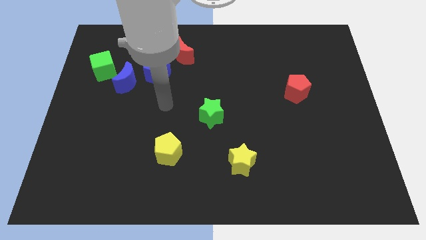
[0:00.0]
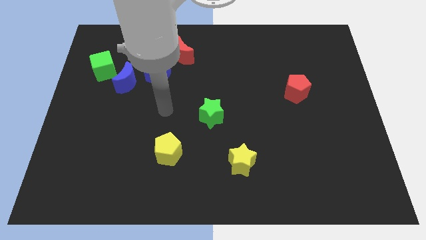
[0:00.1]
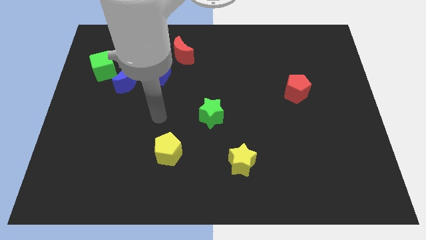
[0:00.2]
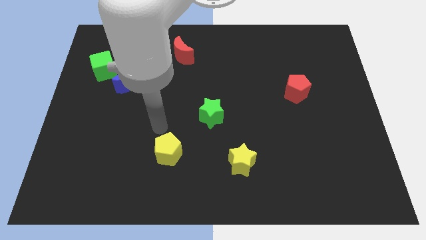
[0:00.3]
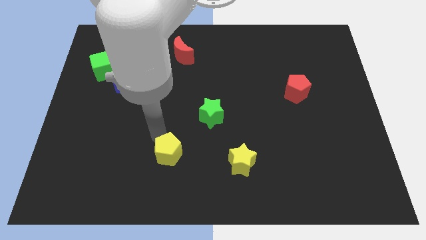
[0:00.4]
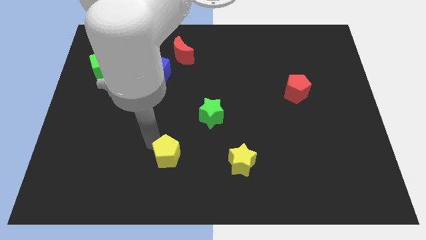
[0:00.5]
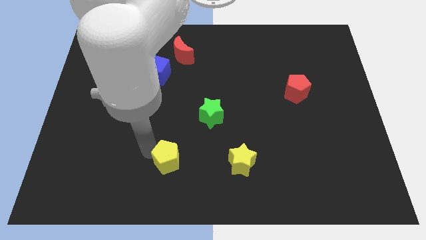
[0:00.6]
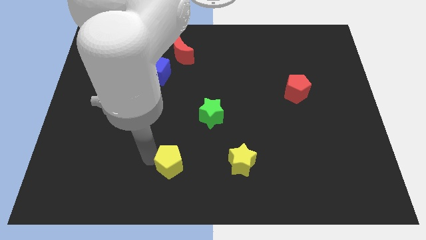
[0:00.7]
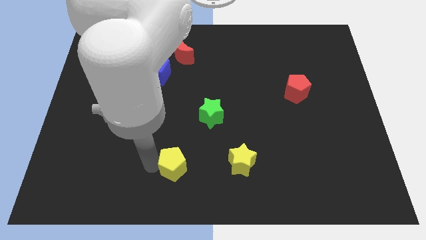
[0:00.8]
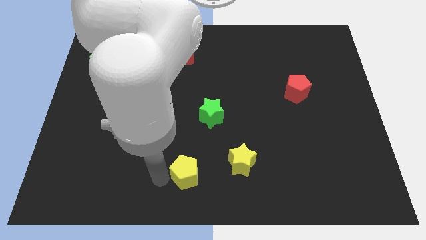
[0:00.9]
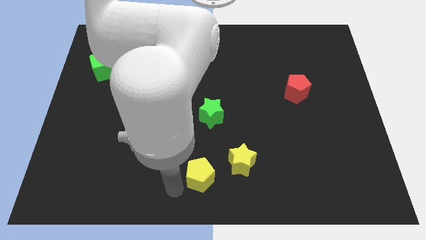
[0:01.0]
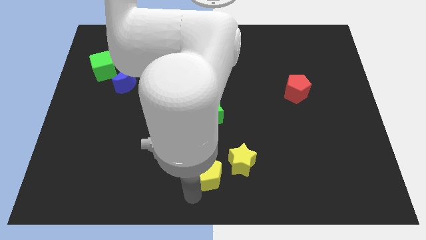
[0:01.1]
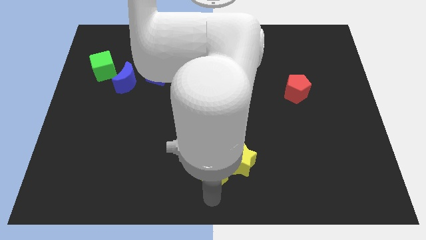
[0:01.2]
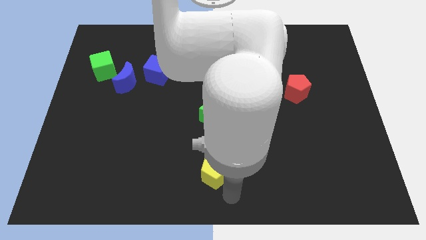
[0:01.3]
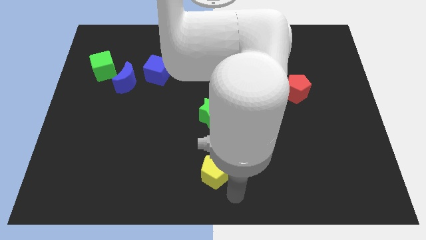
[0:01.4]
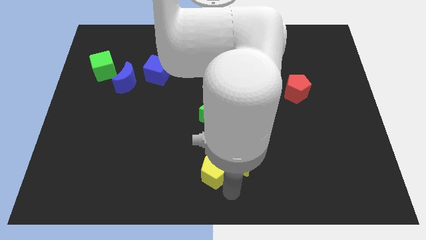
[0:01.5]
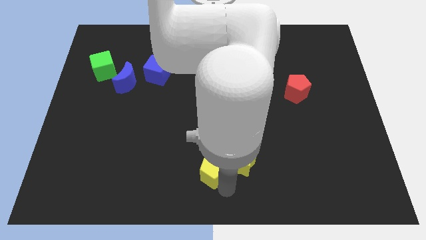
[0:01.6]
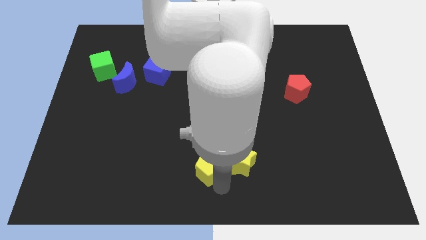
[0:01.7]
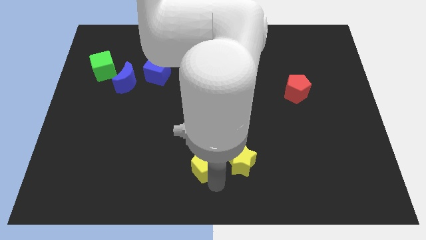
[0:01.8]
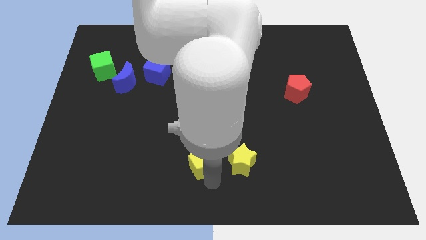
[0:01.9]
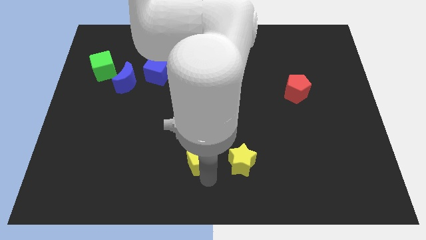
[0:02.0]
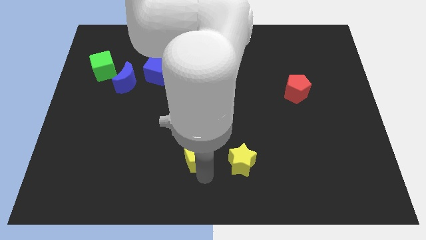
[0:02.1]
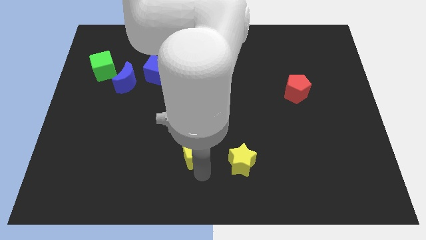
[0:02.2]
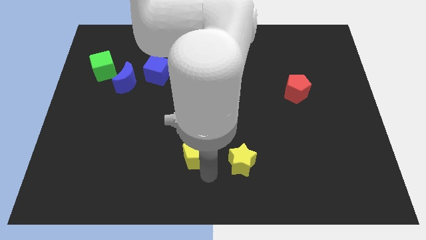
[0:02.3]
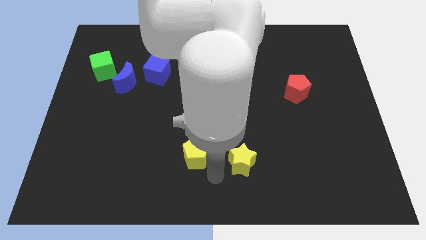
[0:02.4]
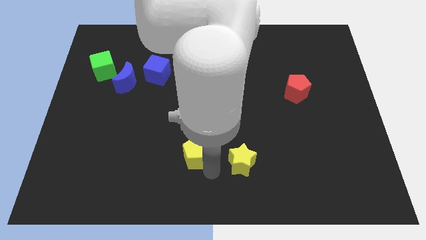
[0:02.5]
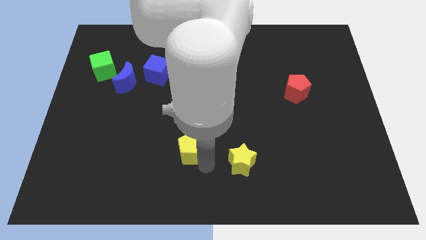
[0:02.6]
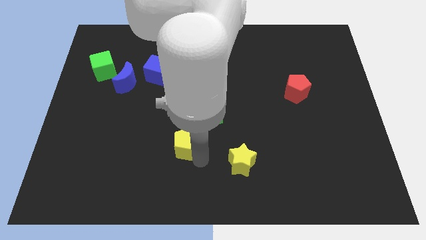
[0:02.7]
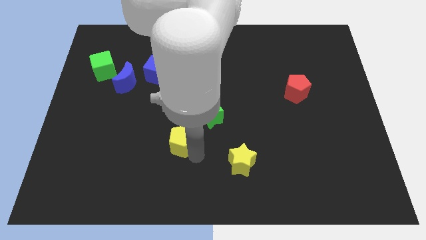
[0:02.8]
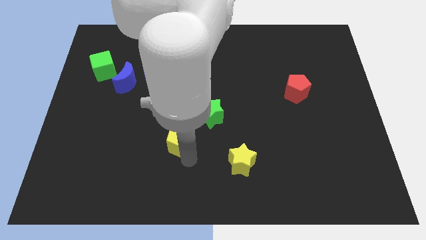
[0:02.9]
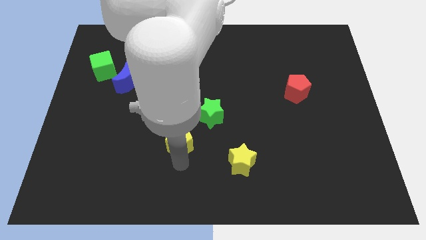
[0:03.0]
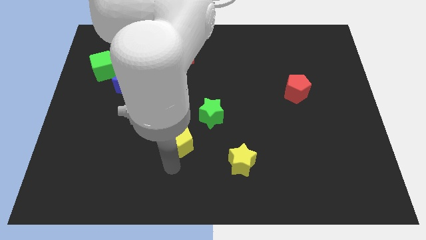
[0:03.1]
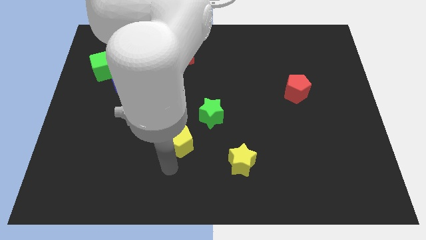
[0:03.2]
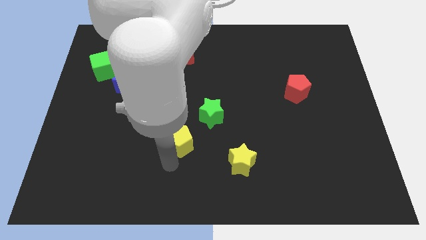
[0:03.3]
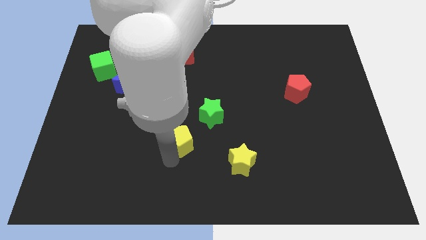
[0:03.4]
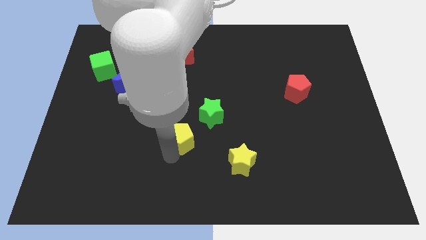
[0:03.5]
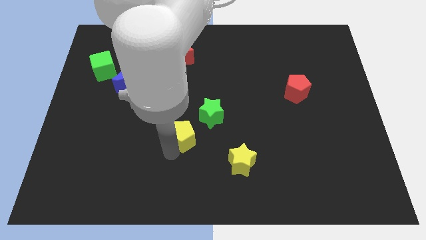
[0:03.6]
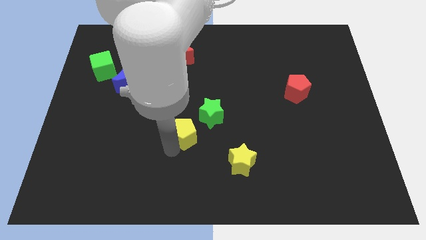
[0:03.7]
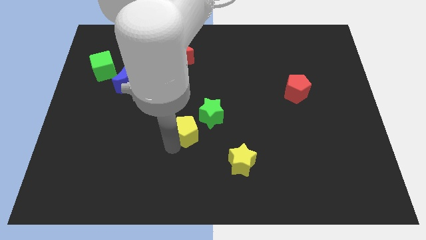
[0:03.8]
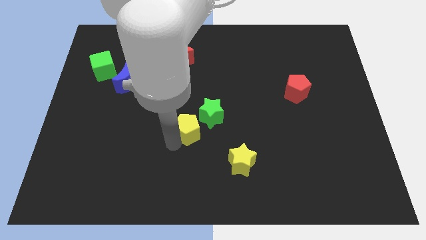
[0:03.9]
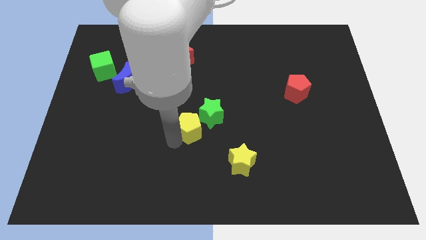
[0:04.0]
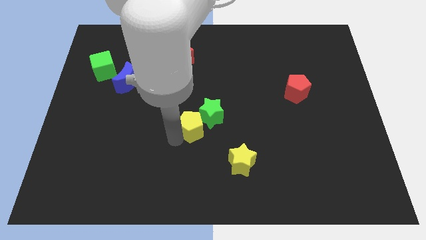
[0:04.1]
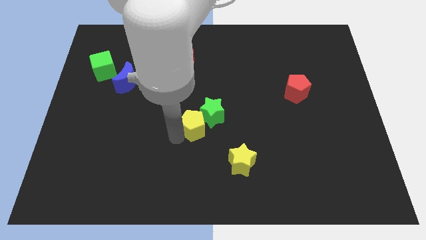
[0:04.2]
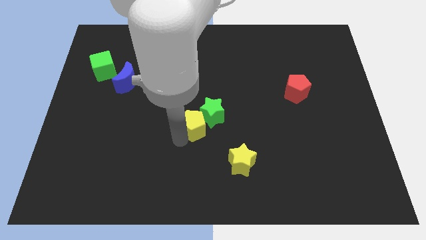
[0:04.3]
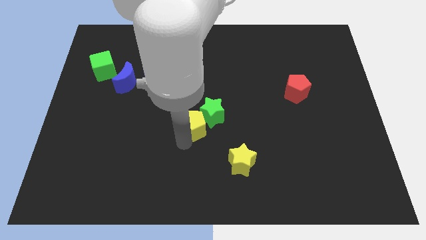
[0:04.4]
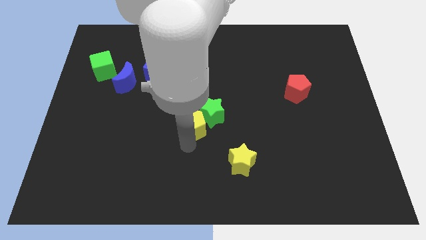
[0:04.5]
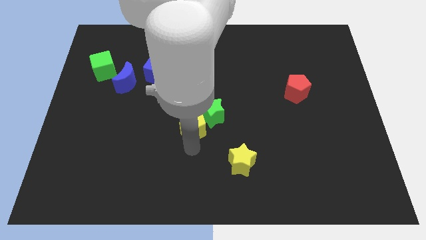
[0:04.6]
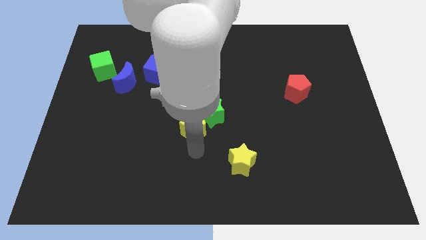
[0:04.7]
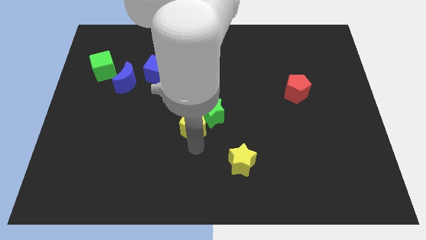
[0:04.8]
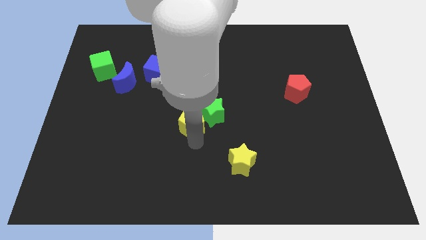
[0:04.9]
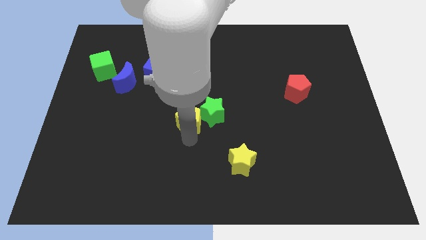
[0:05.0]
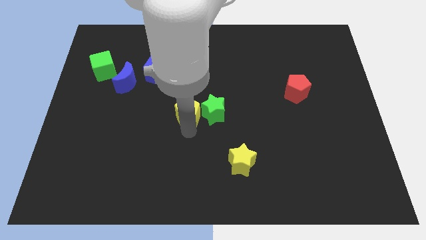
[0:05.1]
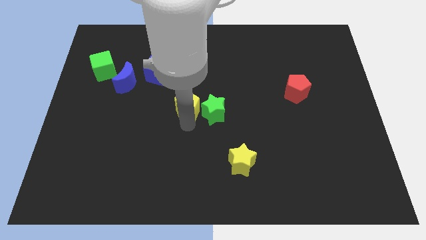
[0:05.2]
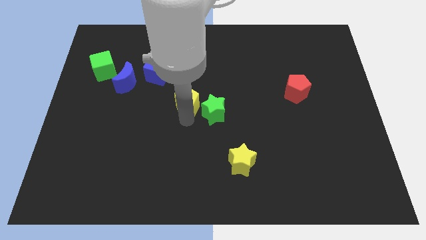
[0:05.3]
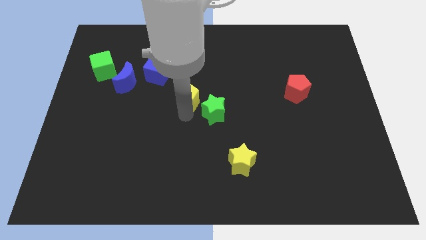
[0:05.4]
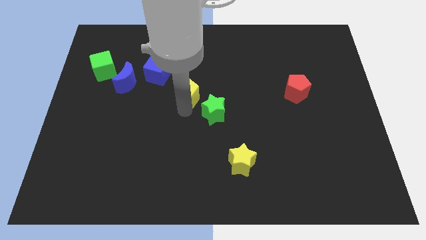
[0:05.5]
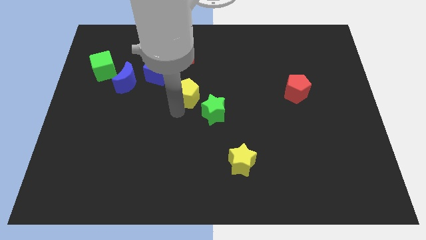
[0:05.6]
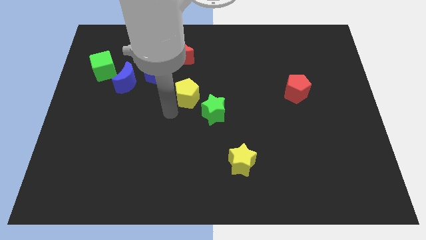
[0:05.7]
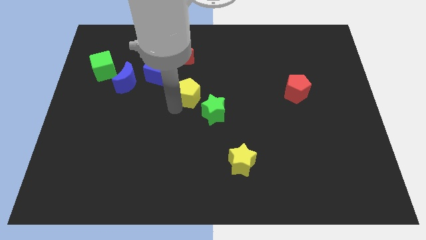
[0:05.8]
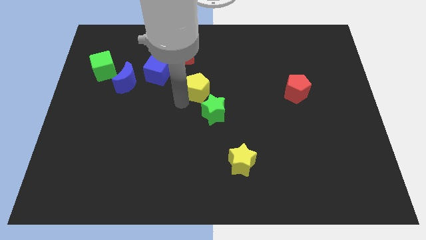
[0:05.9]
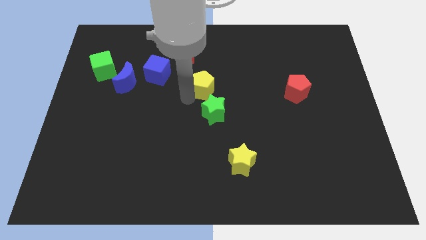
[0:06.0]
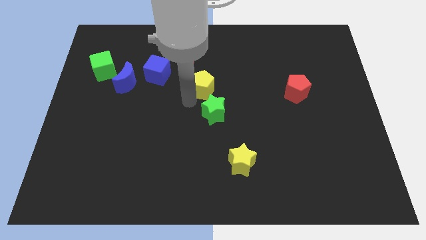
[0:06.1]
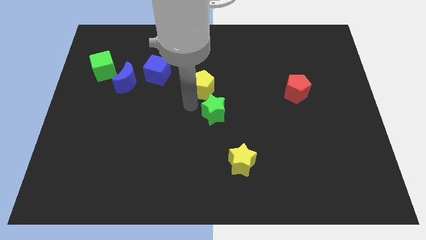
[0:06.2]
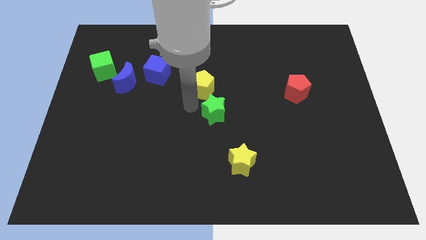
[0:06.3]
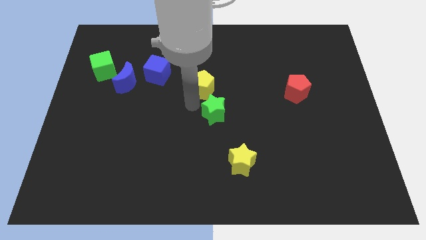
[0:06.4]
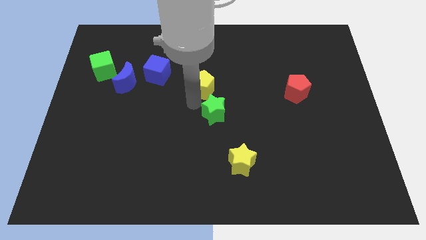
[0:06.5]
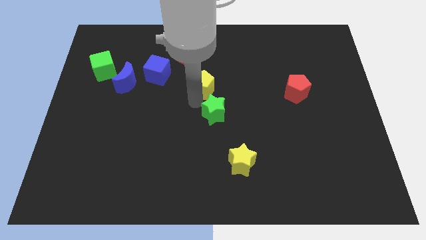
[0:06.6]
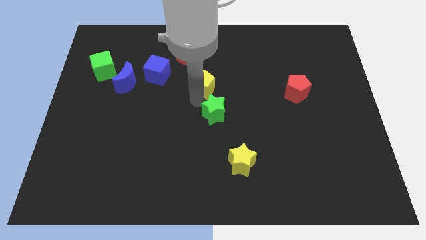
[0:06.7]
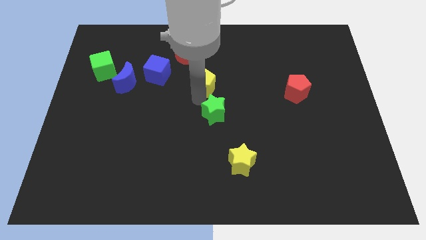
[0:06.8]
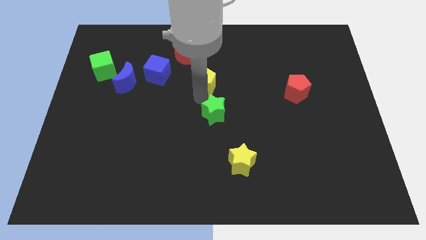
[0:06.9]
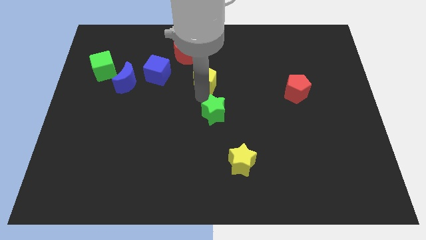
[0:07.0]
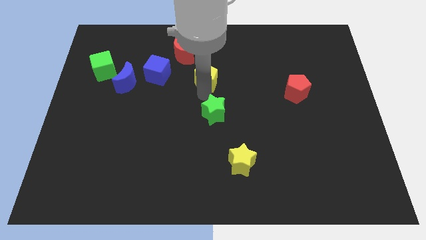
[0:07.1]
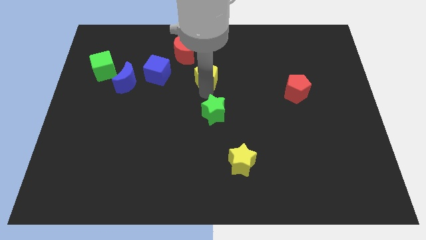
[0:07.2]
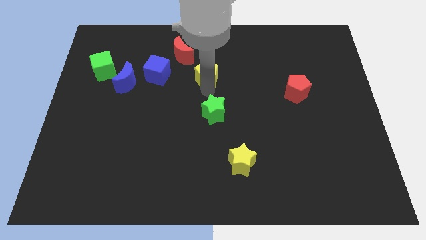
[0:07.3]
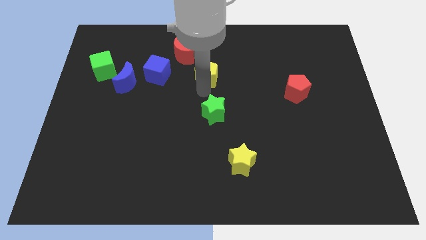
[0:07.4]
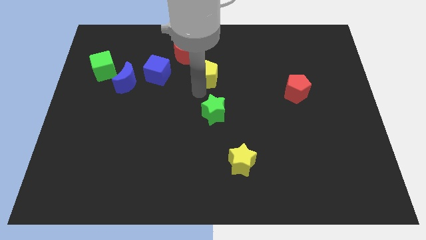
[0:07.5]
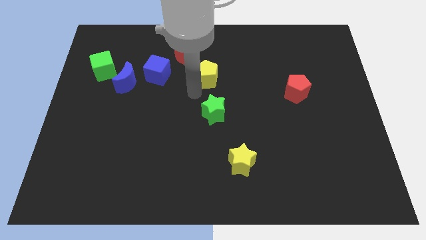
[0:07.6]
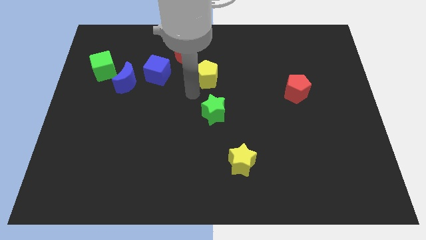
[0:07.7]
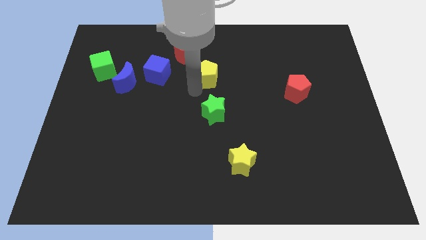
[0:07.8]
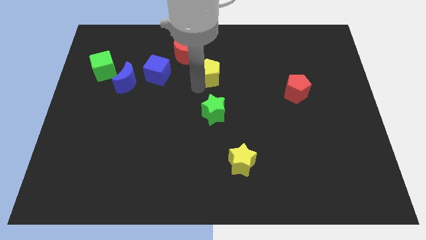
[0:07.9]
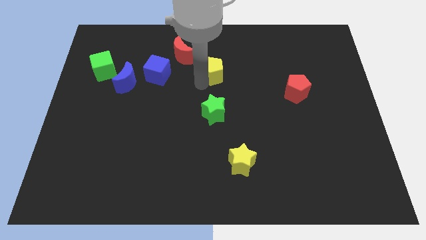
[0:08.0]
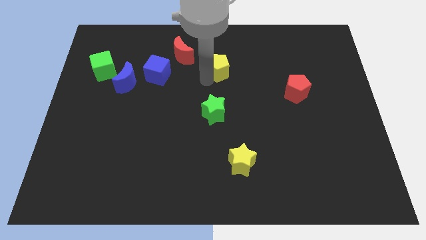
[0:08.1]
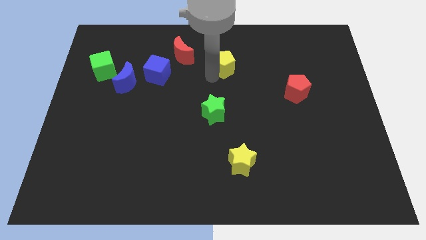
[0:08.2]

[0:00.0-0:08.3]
slide the yellow pentagon right of the red moon

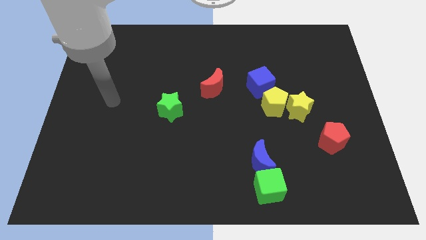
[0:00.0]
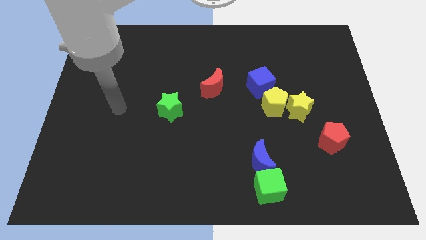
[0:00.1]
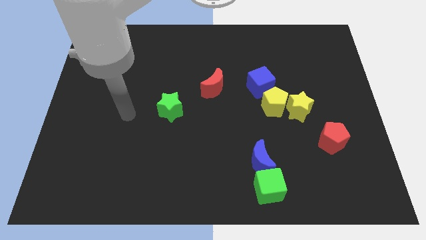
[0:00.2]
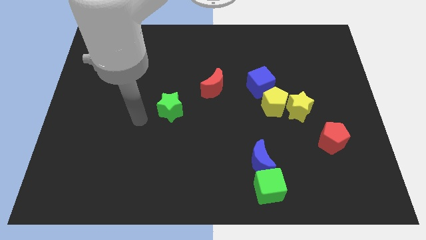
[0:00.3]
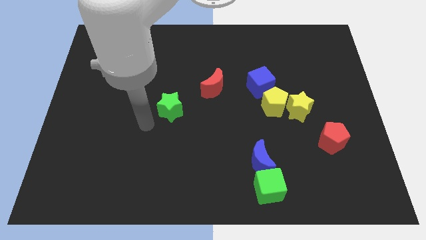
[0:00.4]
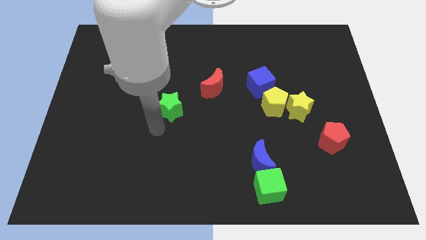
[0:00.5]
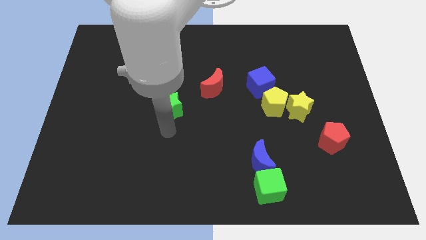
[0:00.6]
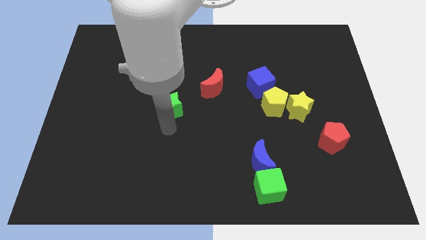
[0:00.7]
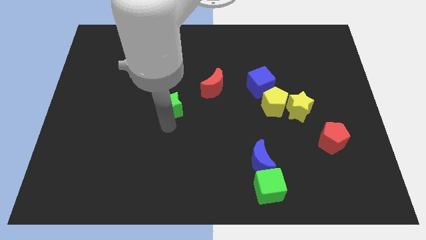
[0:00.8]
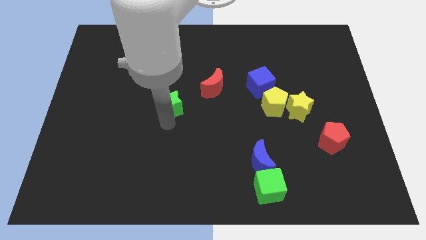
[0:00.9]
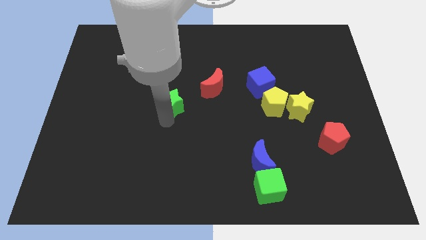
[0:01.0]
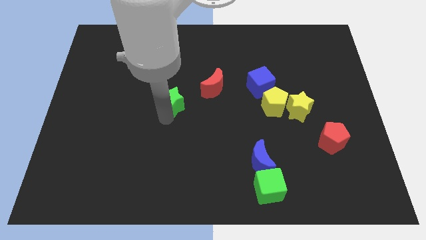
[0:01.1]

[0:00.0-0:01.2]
put the green star left of the red moon
